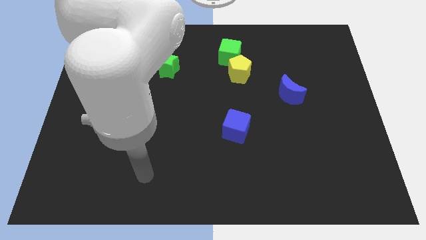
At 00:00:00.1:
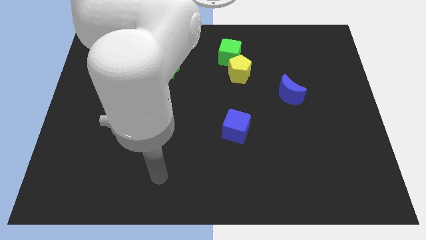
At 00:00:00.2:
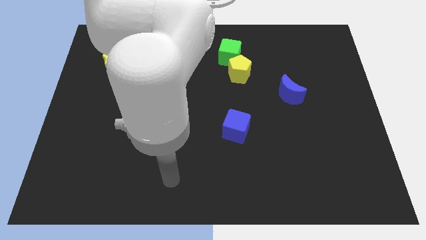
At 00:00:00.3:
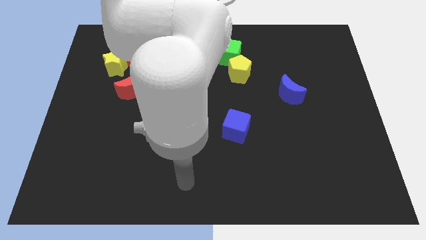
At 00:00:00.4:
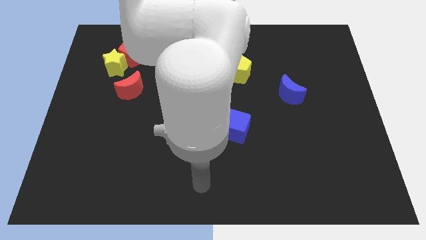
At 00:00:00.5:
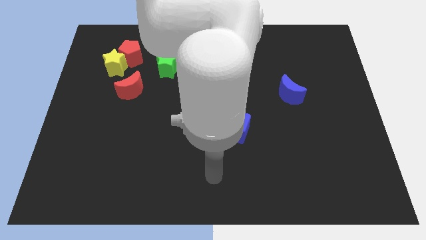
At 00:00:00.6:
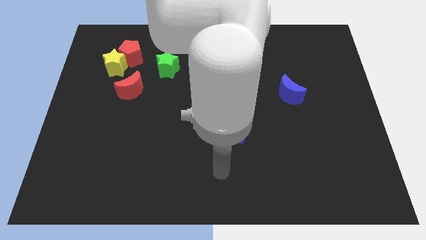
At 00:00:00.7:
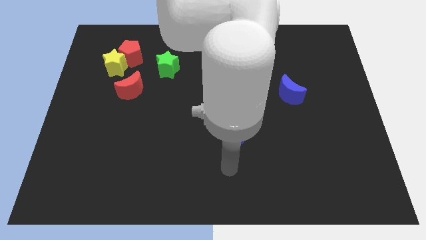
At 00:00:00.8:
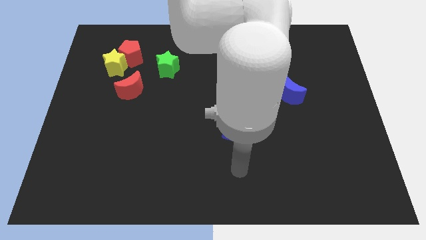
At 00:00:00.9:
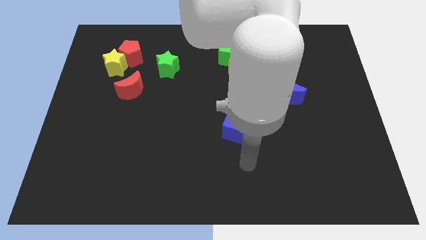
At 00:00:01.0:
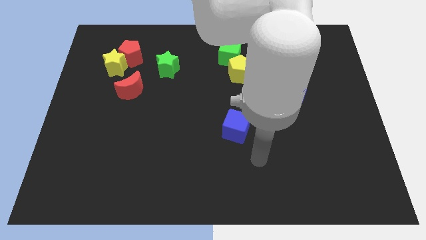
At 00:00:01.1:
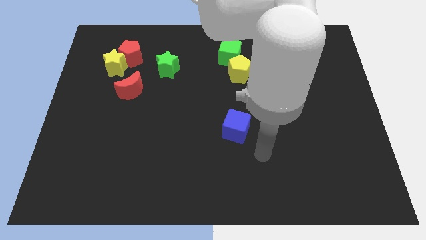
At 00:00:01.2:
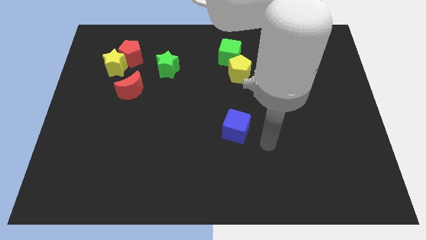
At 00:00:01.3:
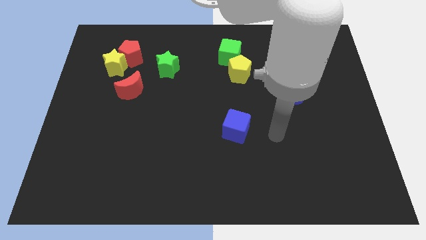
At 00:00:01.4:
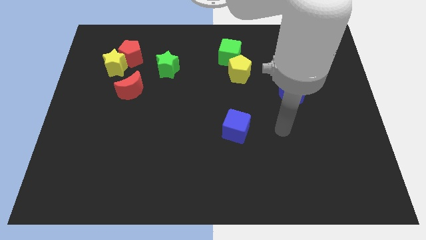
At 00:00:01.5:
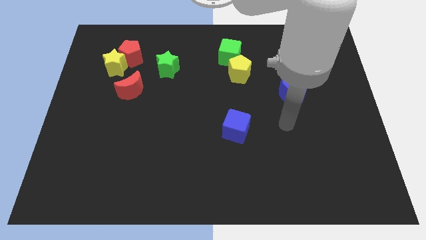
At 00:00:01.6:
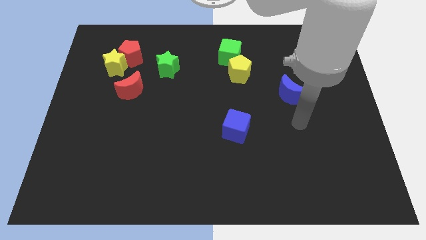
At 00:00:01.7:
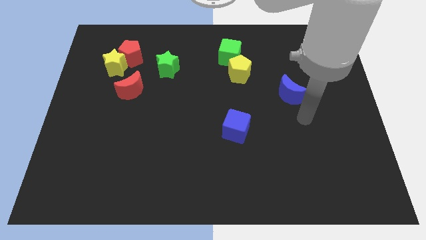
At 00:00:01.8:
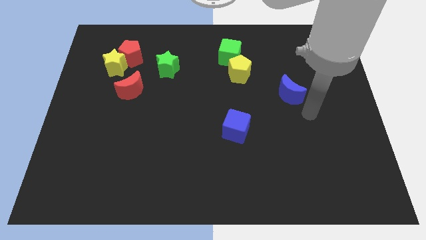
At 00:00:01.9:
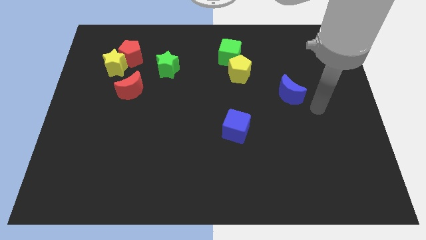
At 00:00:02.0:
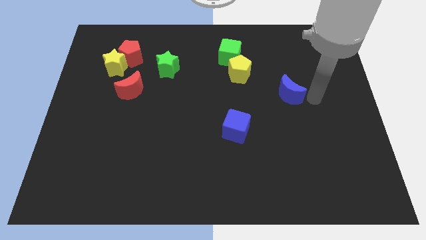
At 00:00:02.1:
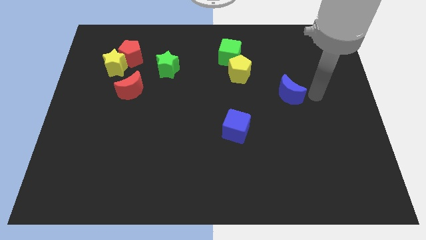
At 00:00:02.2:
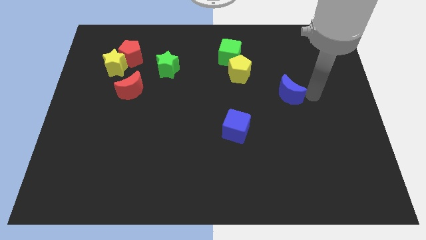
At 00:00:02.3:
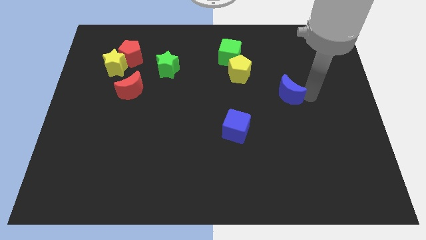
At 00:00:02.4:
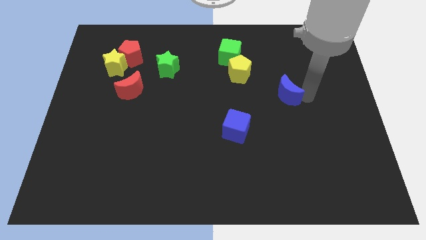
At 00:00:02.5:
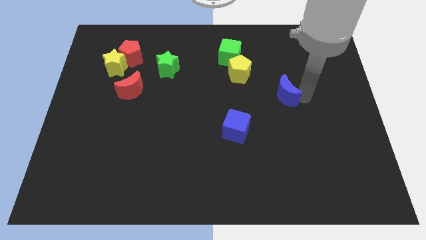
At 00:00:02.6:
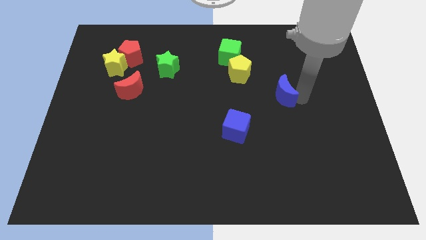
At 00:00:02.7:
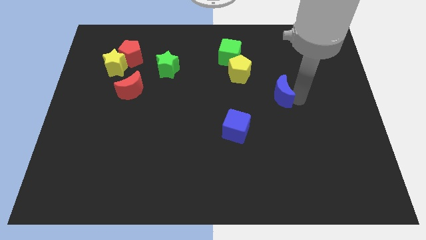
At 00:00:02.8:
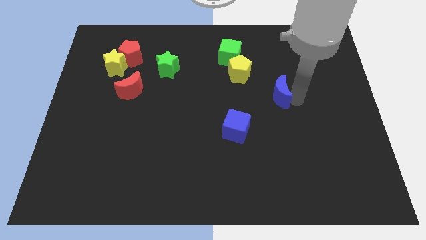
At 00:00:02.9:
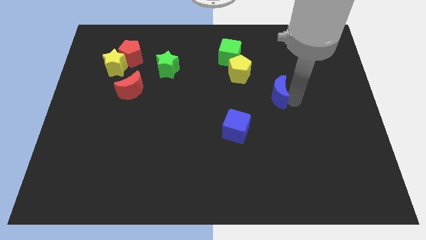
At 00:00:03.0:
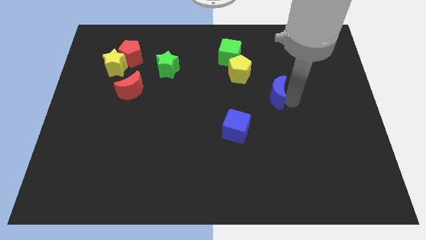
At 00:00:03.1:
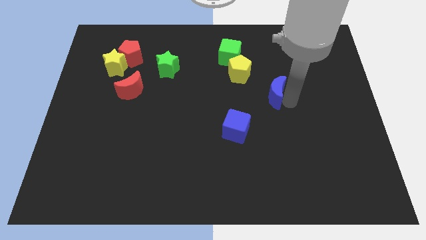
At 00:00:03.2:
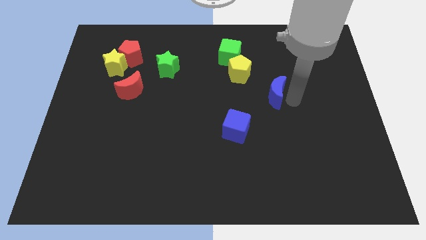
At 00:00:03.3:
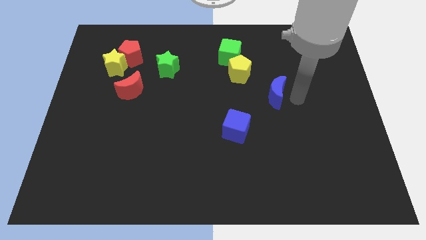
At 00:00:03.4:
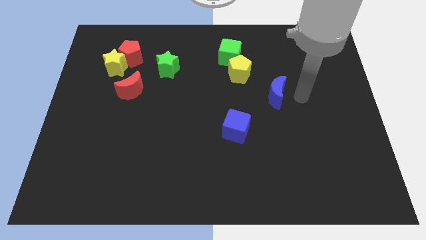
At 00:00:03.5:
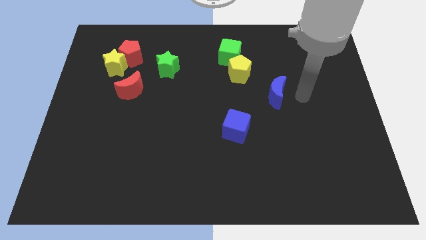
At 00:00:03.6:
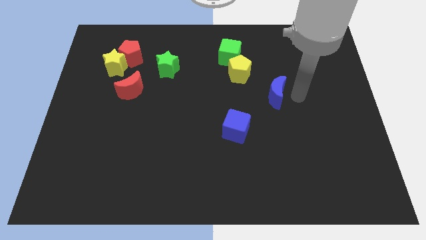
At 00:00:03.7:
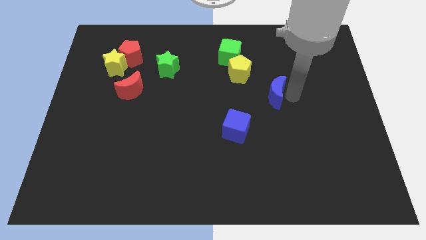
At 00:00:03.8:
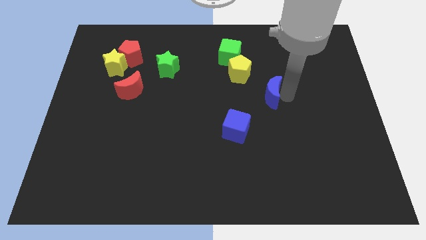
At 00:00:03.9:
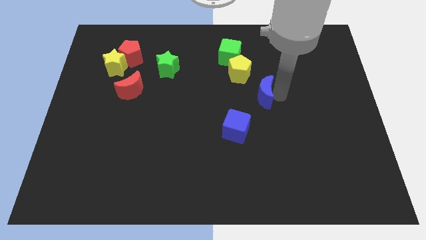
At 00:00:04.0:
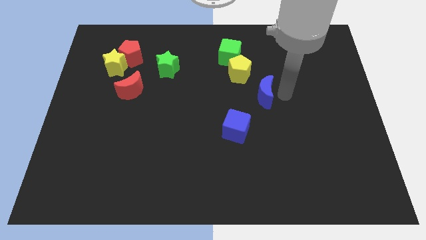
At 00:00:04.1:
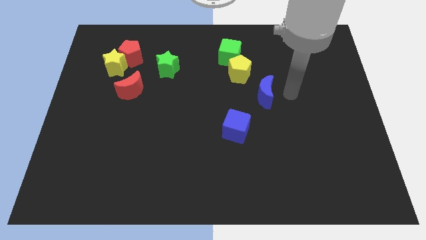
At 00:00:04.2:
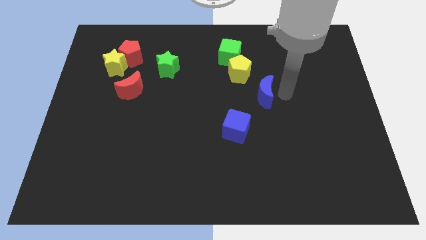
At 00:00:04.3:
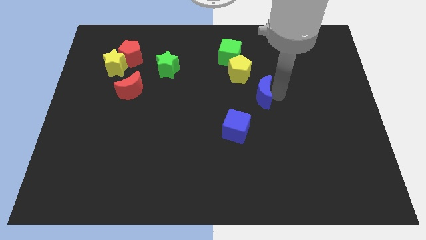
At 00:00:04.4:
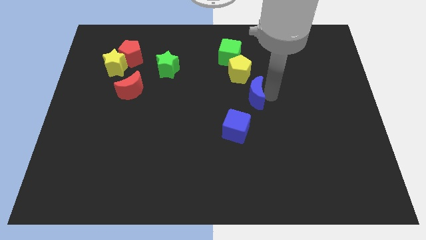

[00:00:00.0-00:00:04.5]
move the blue moon to the left a little

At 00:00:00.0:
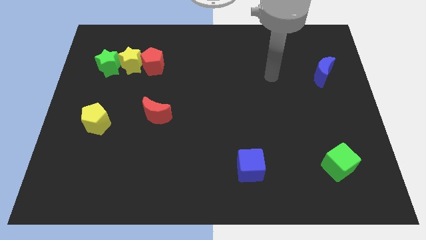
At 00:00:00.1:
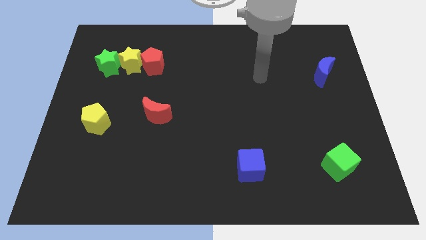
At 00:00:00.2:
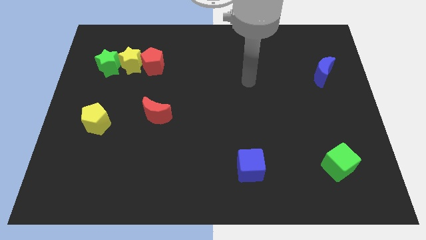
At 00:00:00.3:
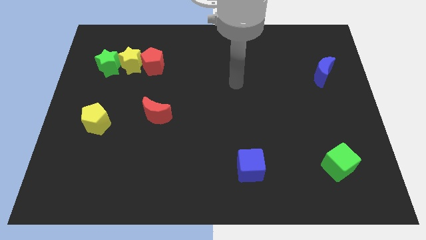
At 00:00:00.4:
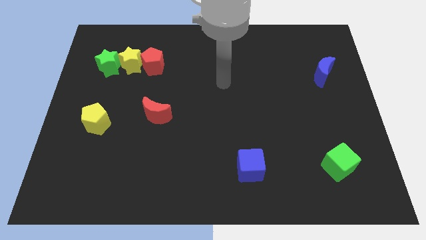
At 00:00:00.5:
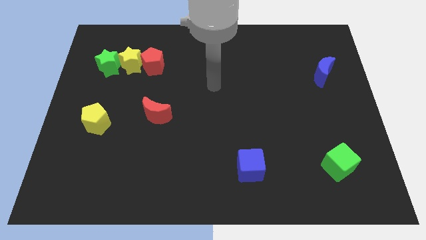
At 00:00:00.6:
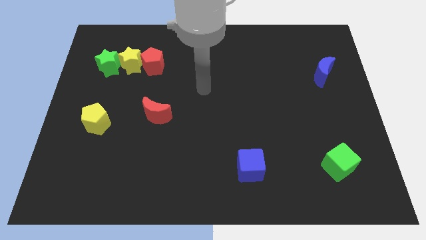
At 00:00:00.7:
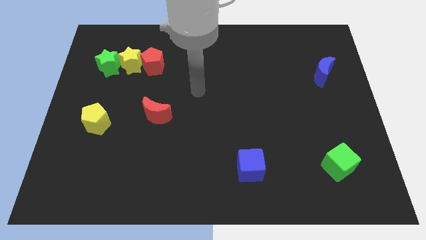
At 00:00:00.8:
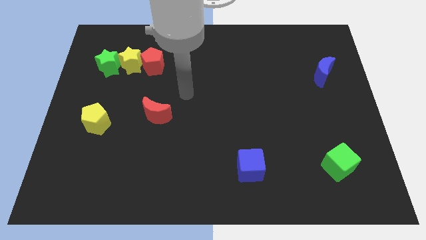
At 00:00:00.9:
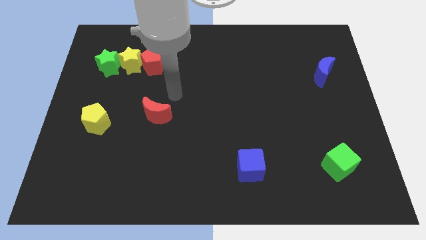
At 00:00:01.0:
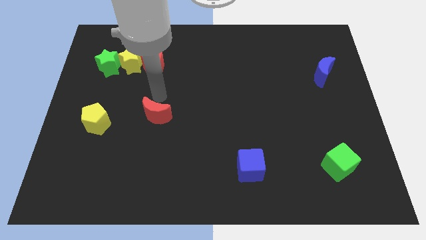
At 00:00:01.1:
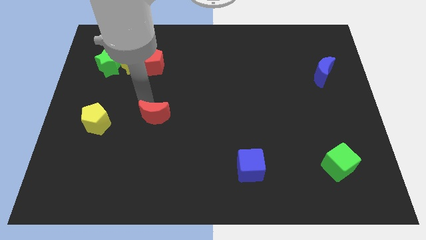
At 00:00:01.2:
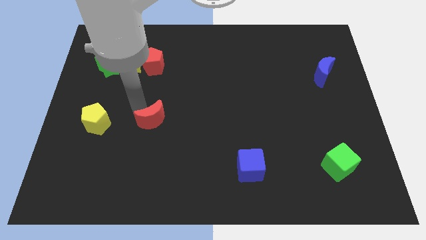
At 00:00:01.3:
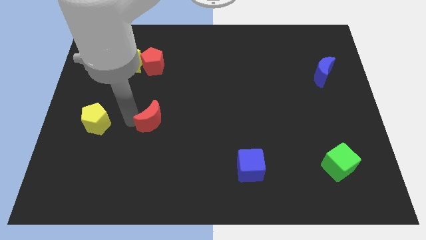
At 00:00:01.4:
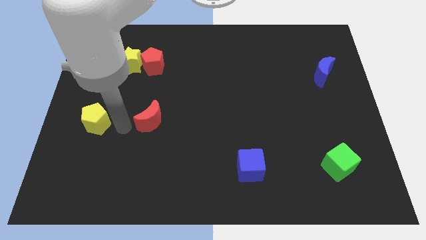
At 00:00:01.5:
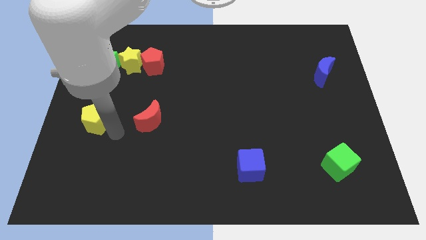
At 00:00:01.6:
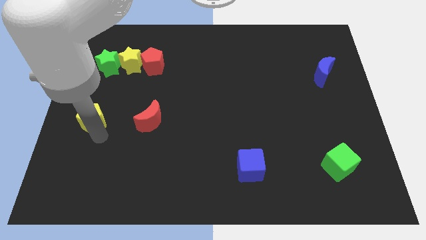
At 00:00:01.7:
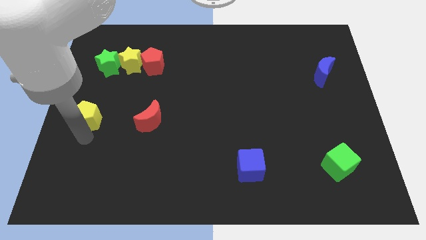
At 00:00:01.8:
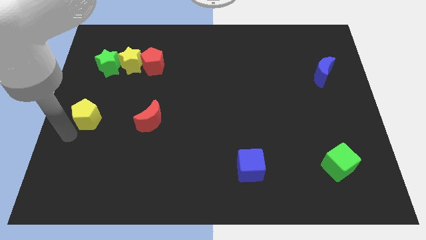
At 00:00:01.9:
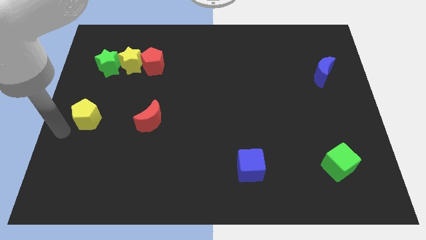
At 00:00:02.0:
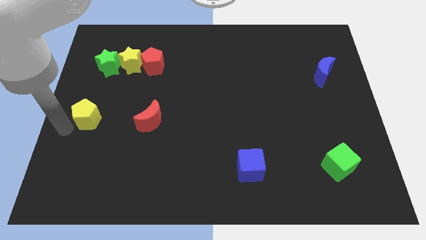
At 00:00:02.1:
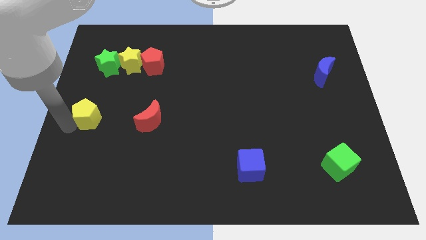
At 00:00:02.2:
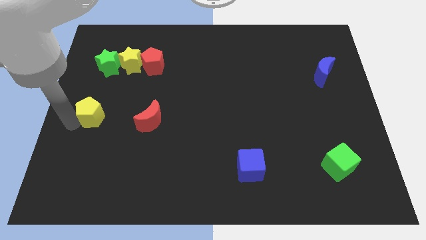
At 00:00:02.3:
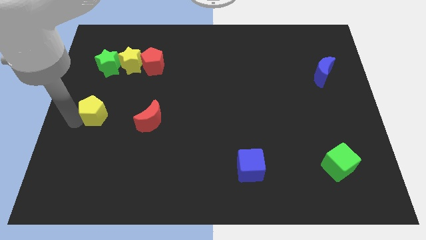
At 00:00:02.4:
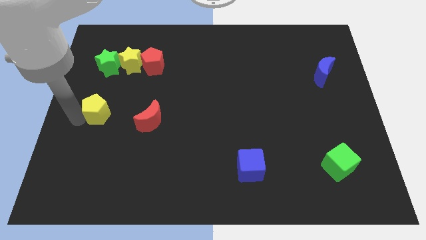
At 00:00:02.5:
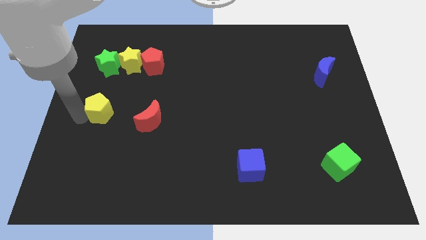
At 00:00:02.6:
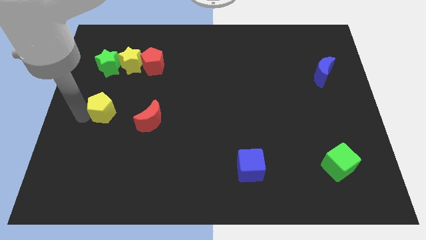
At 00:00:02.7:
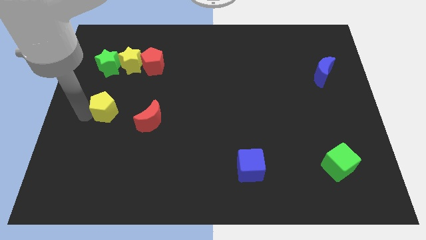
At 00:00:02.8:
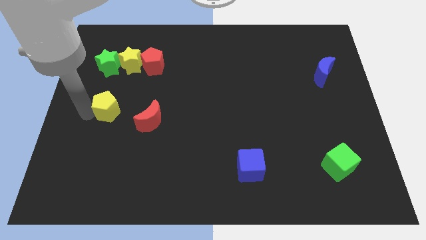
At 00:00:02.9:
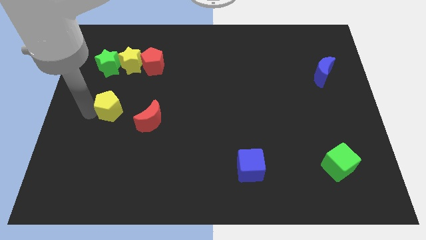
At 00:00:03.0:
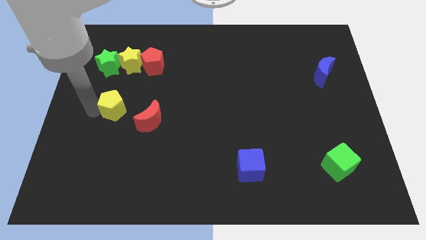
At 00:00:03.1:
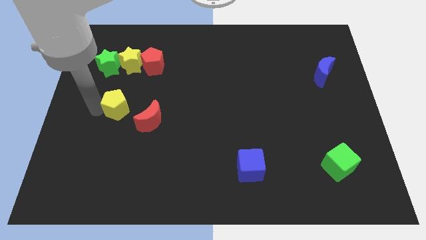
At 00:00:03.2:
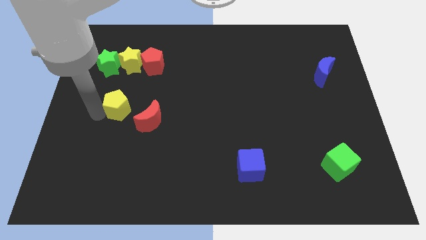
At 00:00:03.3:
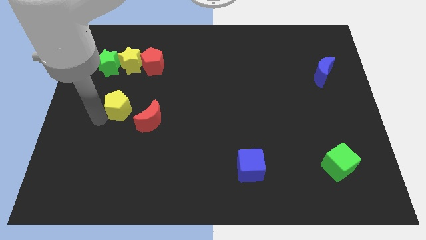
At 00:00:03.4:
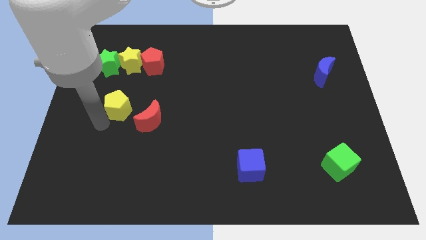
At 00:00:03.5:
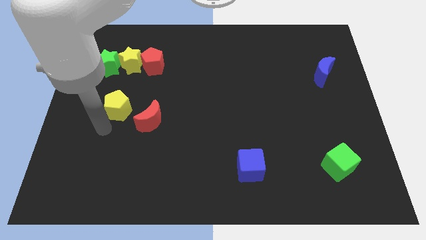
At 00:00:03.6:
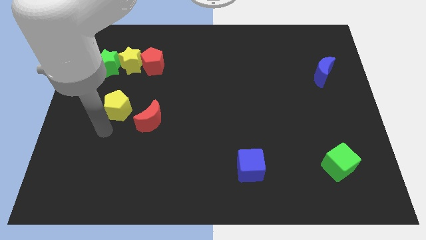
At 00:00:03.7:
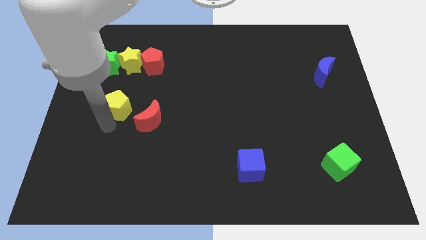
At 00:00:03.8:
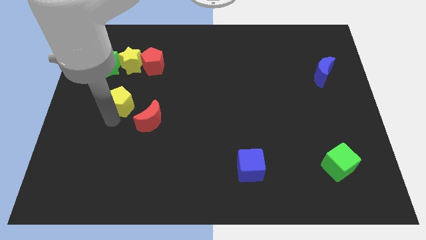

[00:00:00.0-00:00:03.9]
push the yellow pentagon a little upwards and to the right
